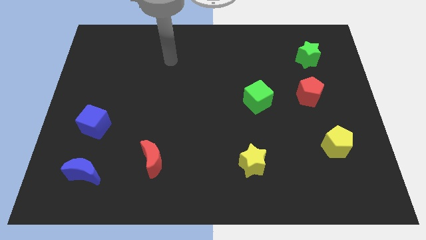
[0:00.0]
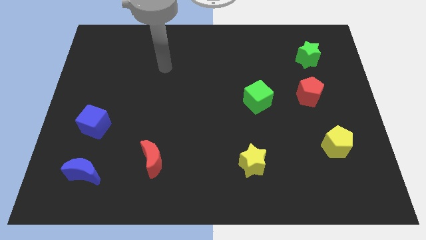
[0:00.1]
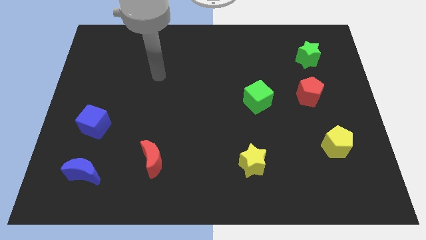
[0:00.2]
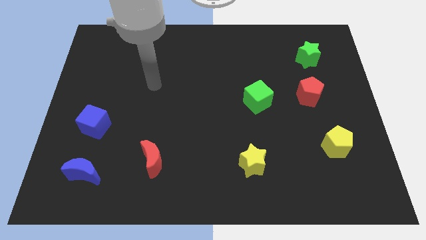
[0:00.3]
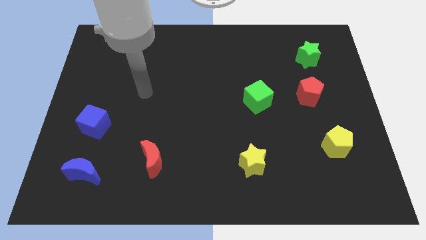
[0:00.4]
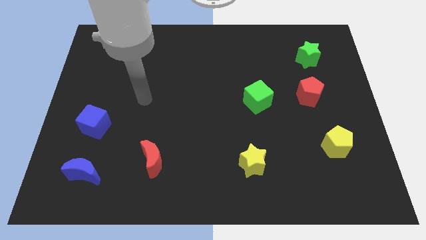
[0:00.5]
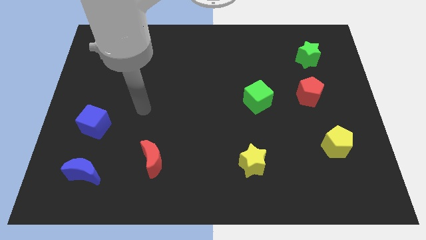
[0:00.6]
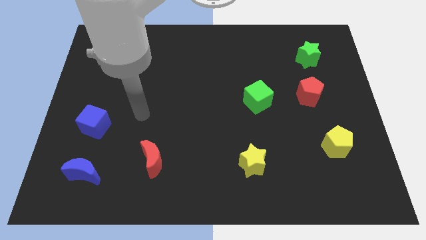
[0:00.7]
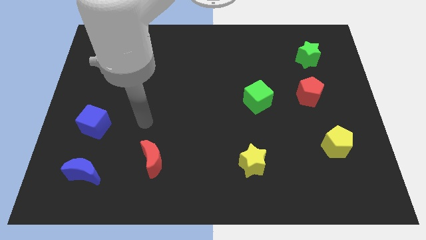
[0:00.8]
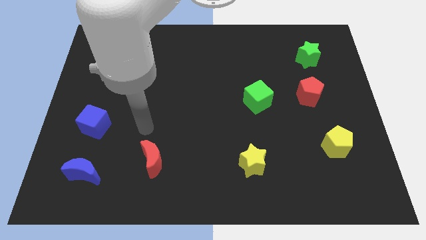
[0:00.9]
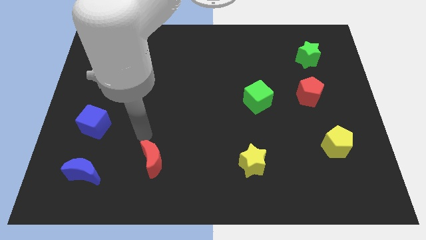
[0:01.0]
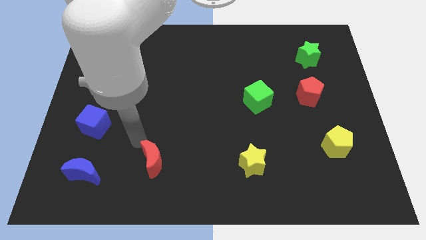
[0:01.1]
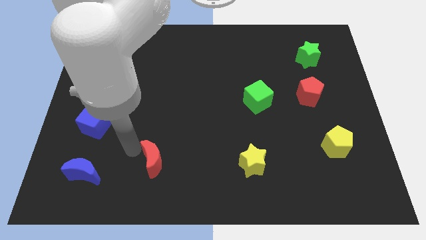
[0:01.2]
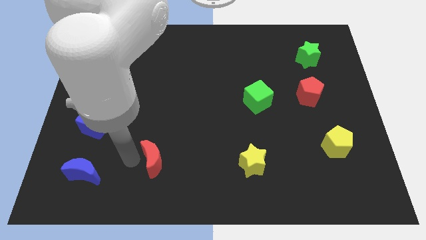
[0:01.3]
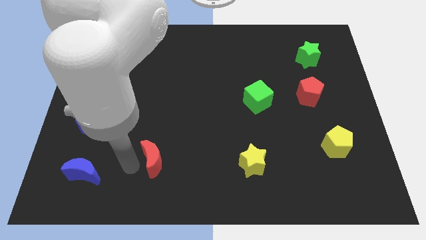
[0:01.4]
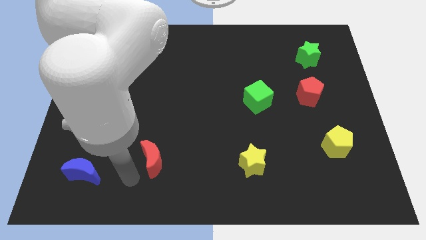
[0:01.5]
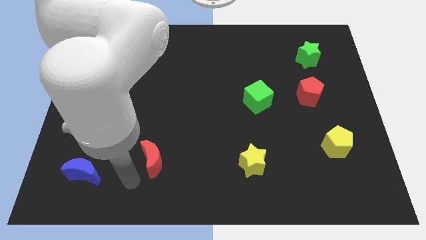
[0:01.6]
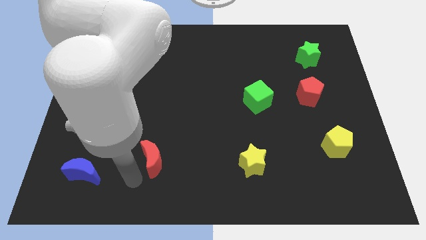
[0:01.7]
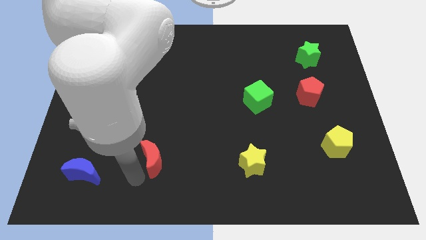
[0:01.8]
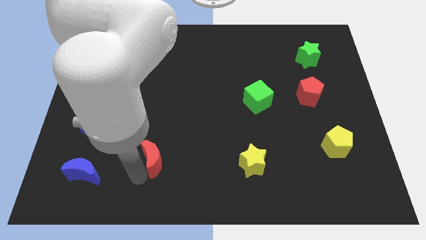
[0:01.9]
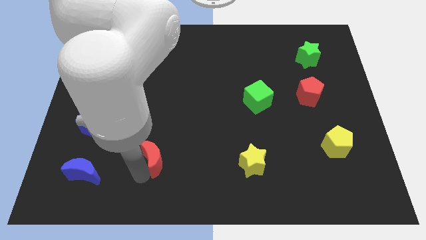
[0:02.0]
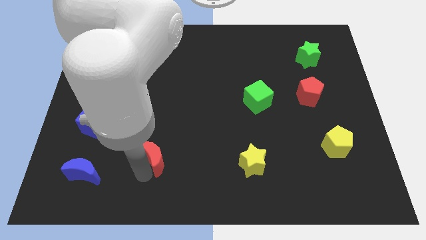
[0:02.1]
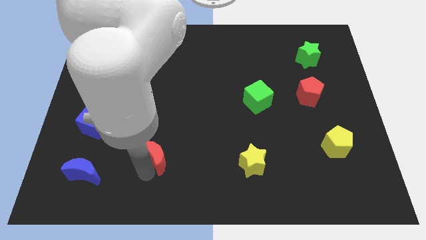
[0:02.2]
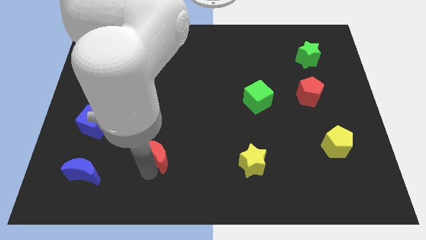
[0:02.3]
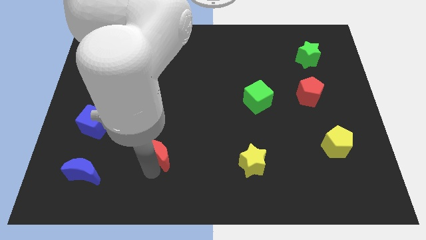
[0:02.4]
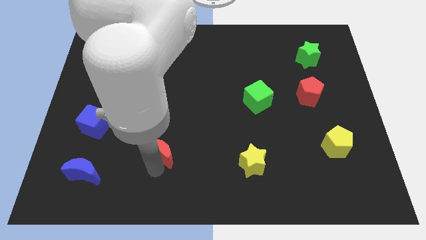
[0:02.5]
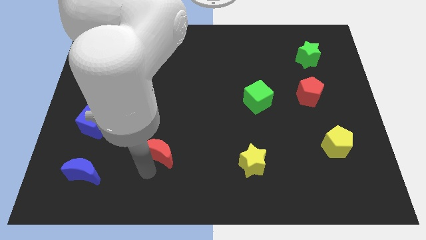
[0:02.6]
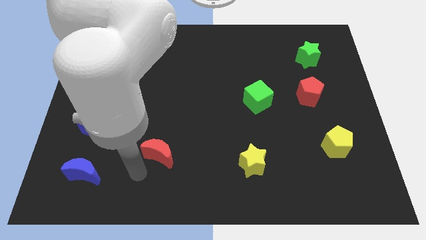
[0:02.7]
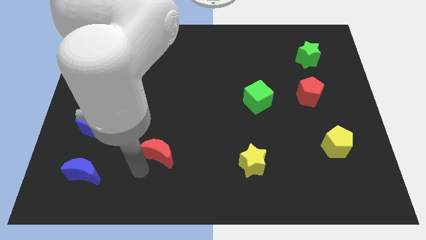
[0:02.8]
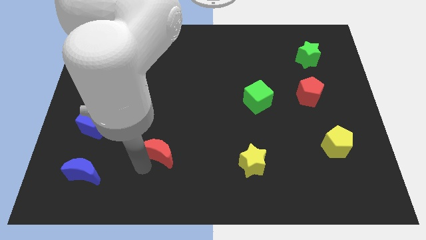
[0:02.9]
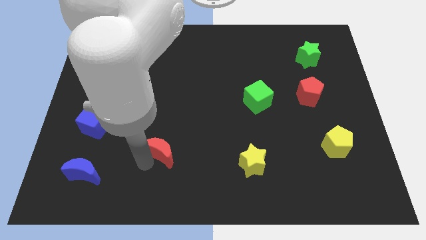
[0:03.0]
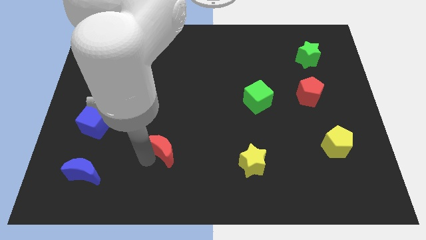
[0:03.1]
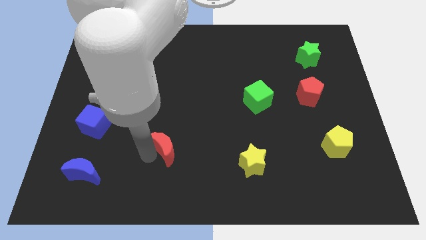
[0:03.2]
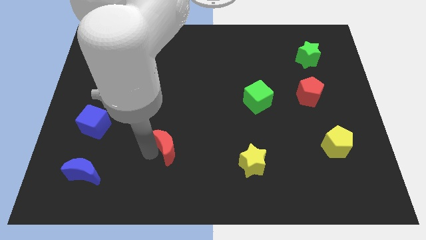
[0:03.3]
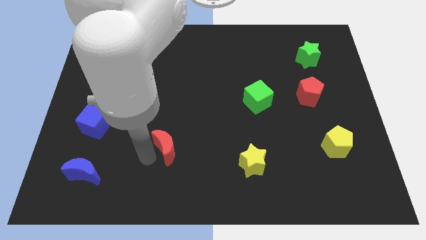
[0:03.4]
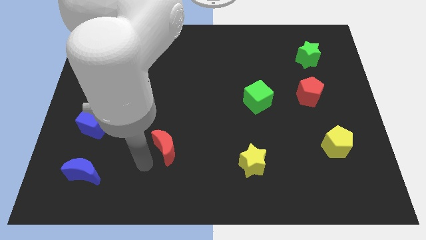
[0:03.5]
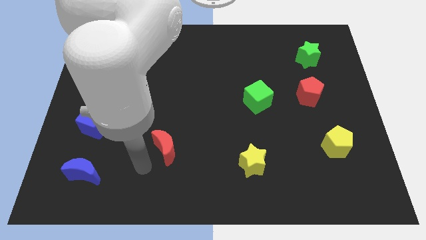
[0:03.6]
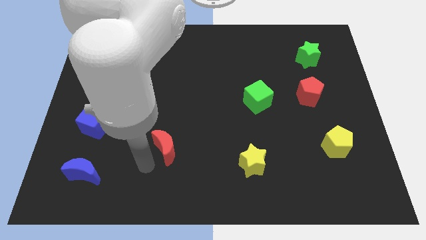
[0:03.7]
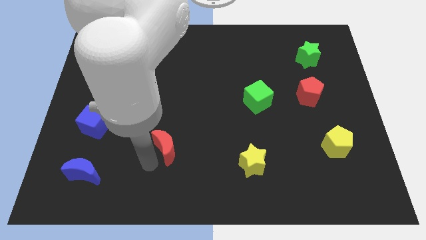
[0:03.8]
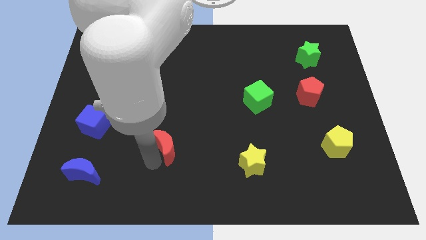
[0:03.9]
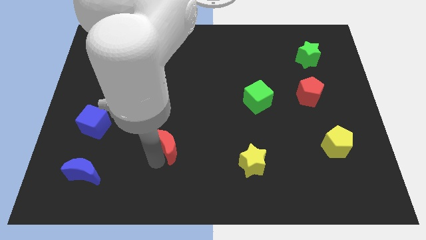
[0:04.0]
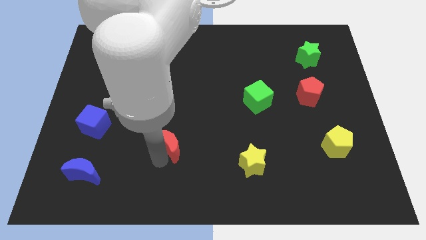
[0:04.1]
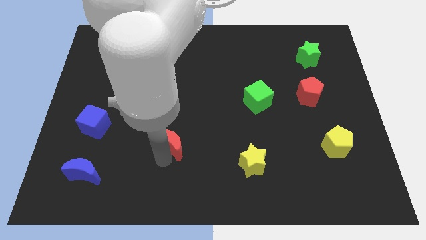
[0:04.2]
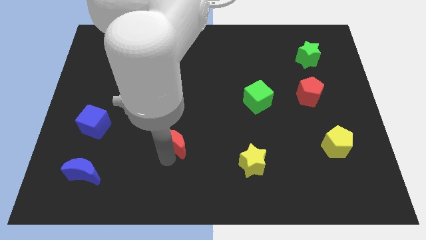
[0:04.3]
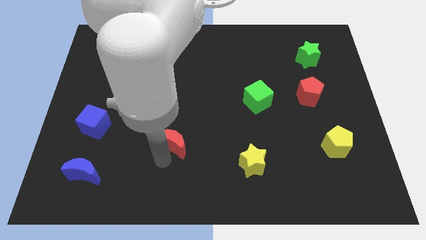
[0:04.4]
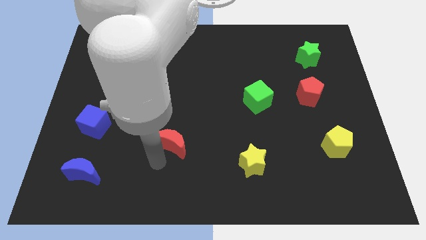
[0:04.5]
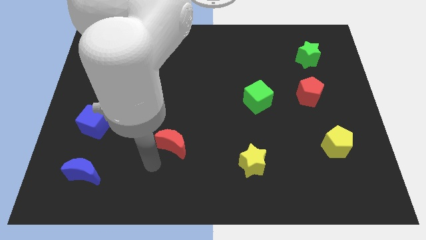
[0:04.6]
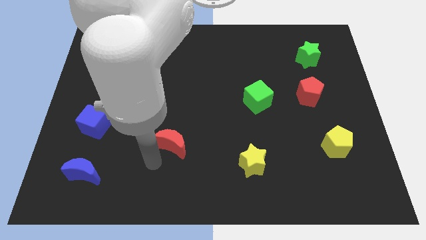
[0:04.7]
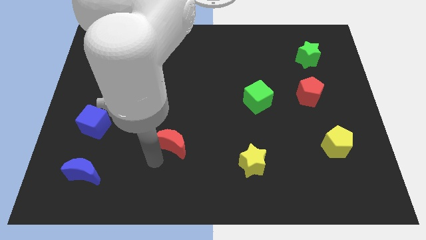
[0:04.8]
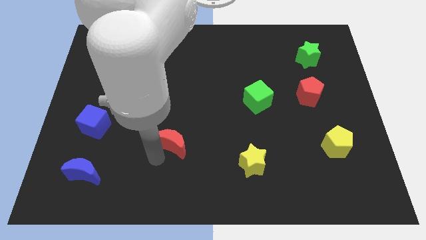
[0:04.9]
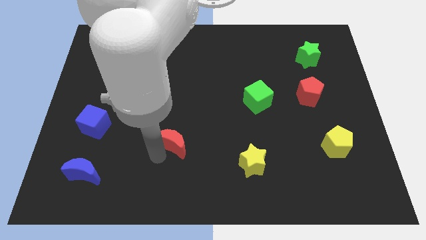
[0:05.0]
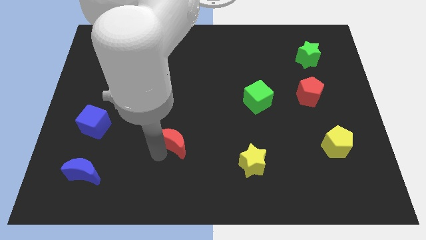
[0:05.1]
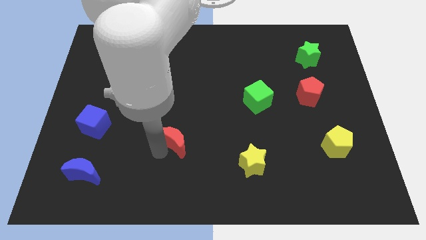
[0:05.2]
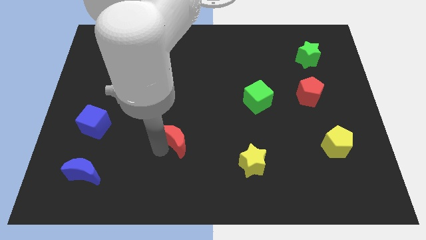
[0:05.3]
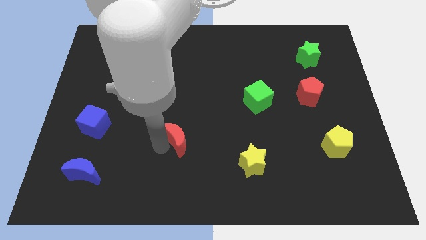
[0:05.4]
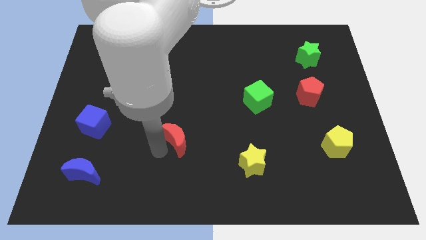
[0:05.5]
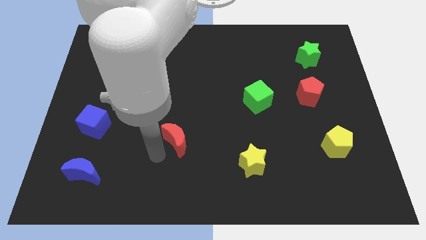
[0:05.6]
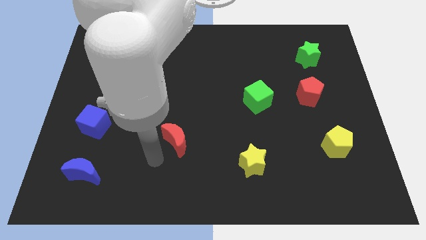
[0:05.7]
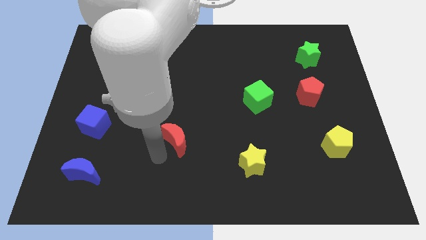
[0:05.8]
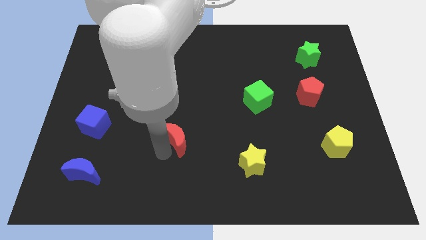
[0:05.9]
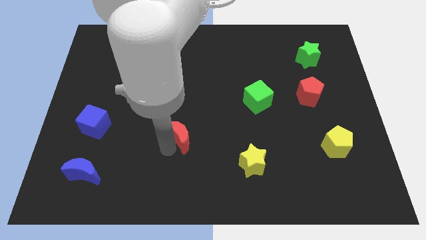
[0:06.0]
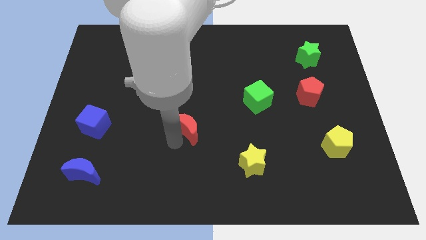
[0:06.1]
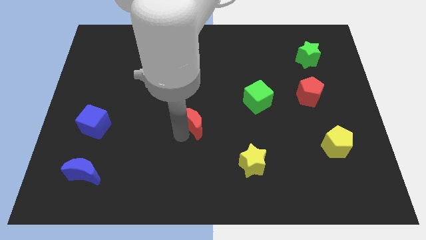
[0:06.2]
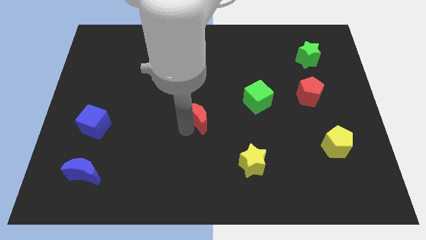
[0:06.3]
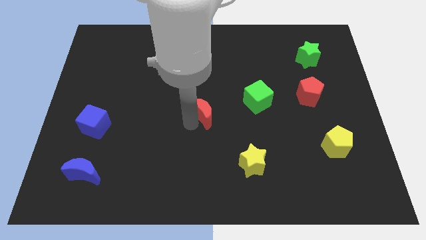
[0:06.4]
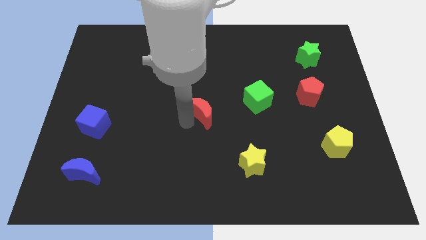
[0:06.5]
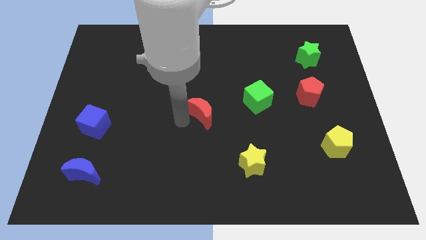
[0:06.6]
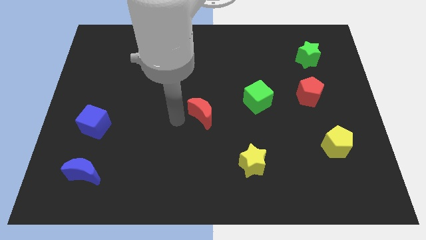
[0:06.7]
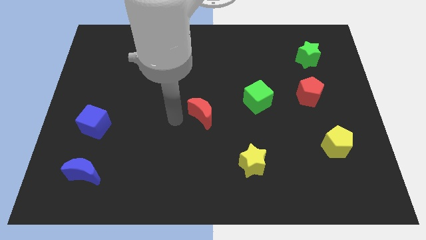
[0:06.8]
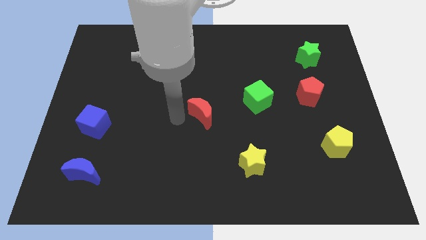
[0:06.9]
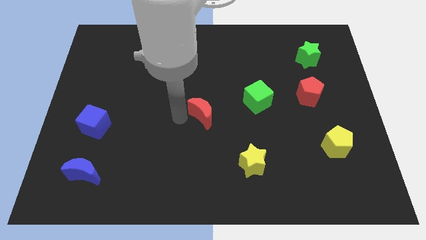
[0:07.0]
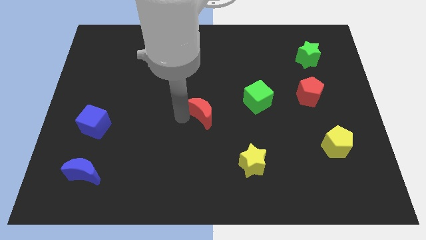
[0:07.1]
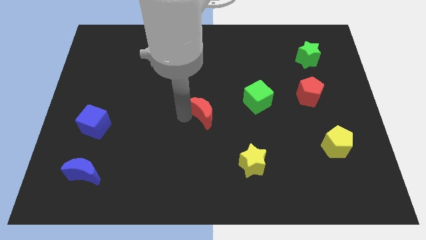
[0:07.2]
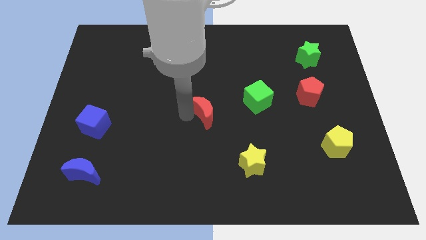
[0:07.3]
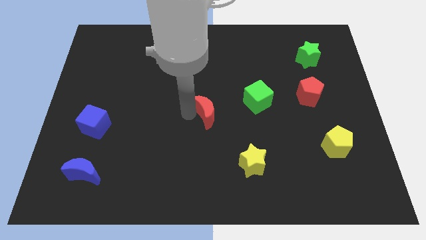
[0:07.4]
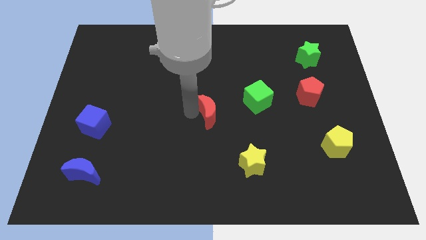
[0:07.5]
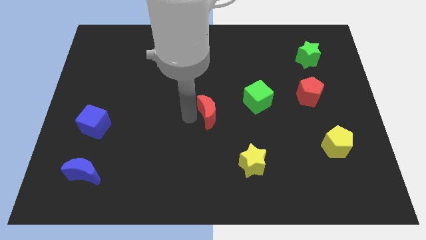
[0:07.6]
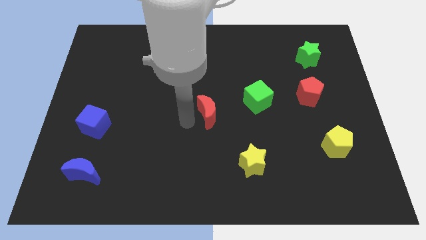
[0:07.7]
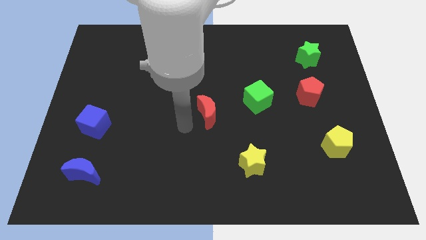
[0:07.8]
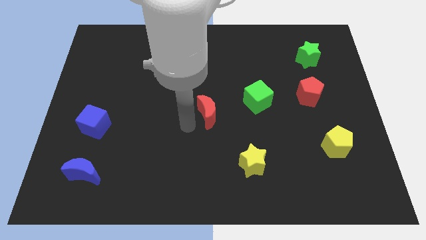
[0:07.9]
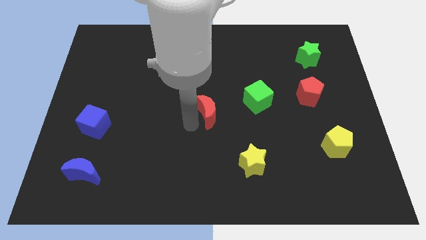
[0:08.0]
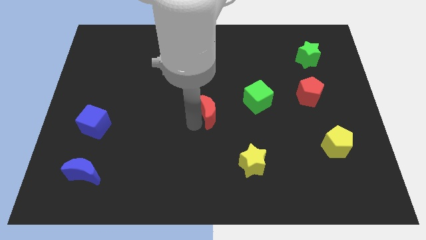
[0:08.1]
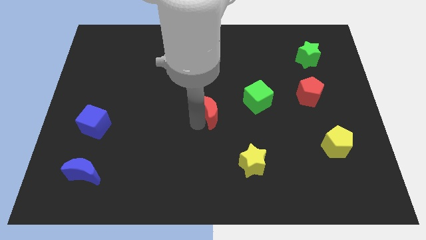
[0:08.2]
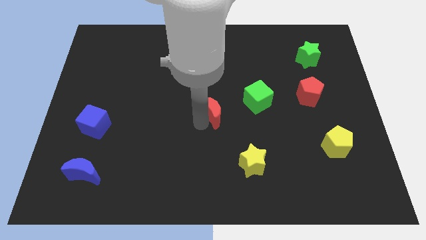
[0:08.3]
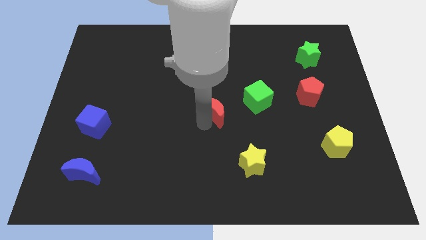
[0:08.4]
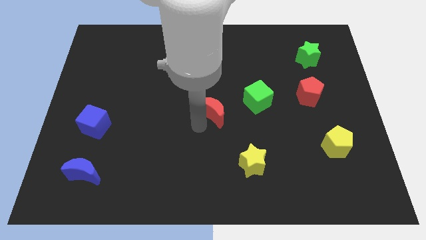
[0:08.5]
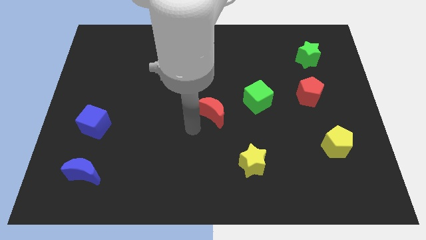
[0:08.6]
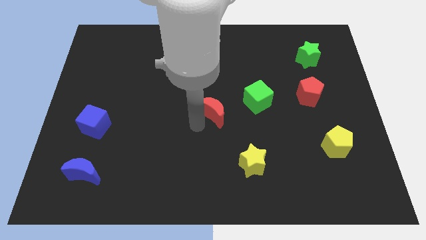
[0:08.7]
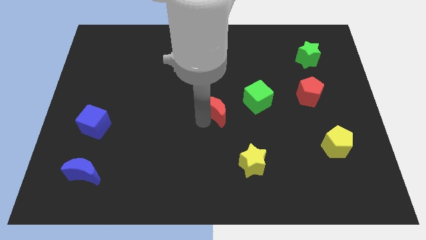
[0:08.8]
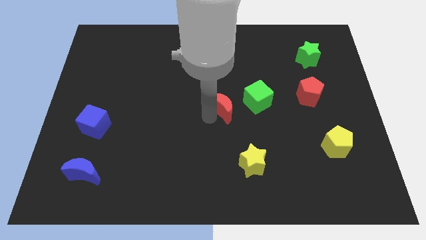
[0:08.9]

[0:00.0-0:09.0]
slide the red moon upwards and to the right diagonally
